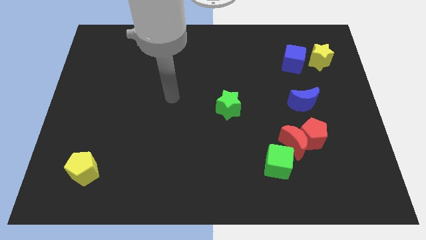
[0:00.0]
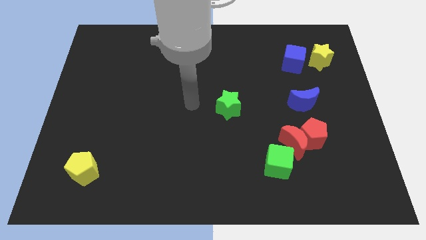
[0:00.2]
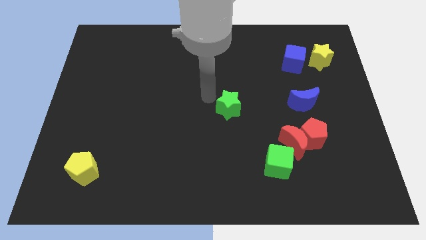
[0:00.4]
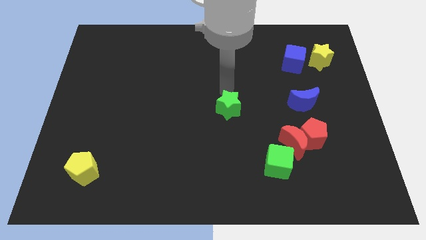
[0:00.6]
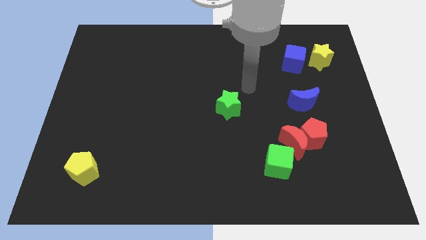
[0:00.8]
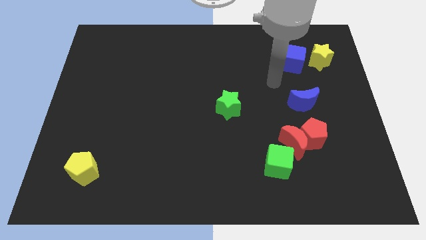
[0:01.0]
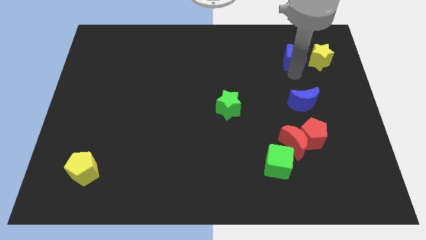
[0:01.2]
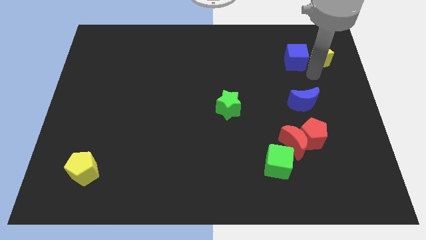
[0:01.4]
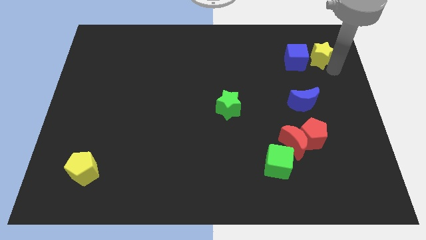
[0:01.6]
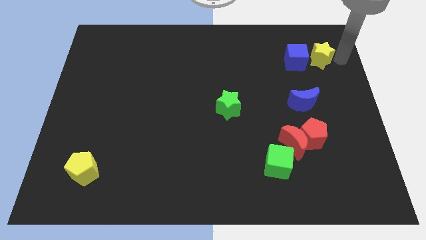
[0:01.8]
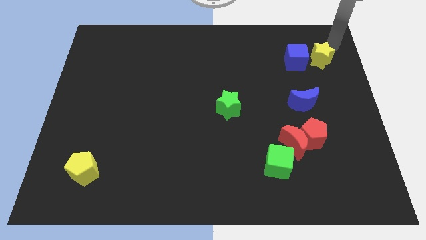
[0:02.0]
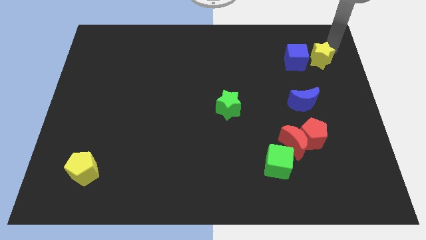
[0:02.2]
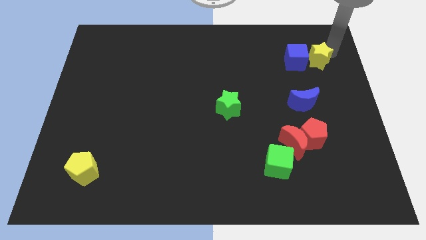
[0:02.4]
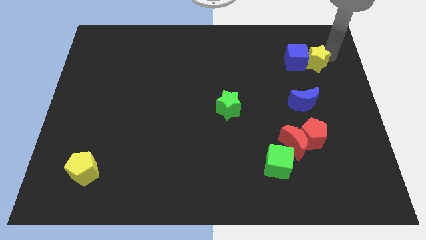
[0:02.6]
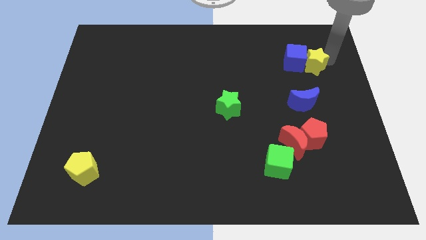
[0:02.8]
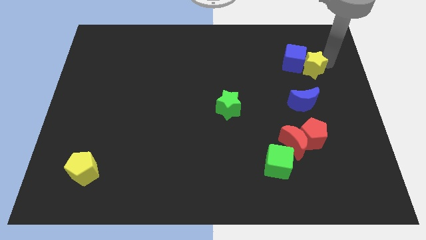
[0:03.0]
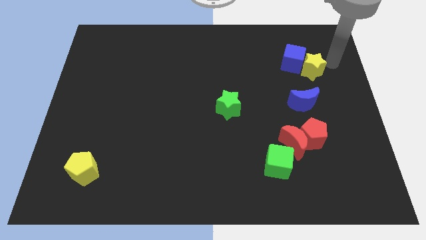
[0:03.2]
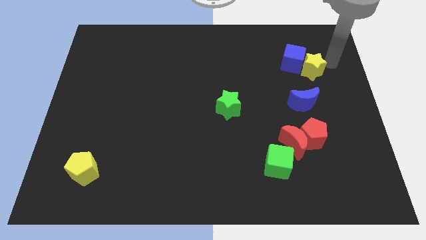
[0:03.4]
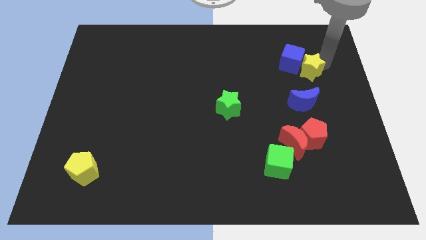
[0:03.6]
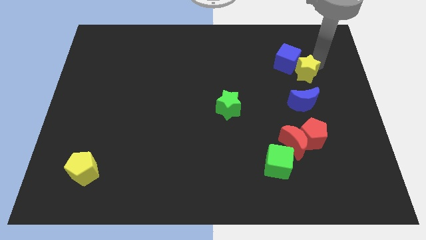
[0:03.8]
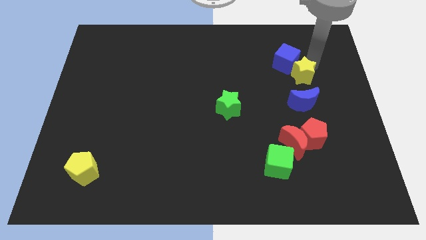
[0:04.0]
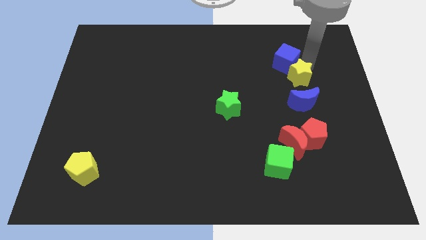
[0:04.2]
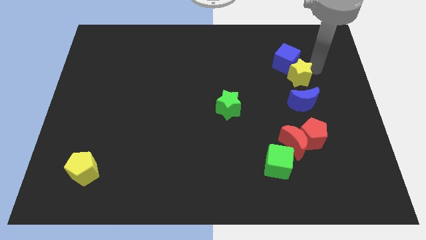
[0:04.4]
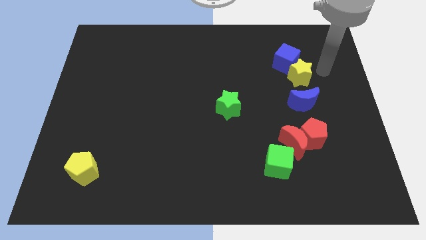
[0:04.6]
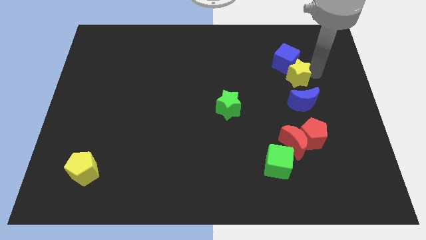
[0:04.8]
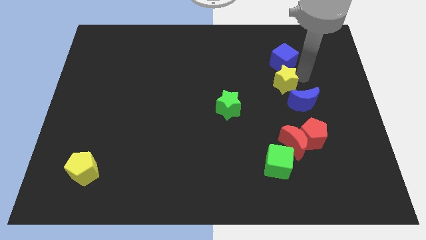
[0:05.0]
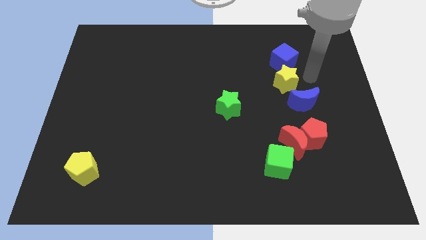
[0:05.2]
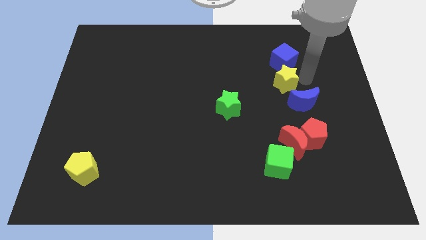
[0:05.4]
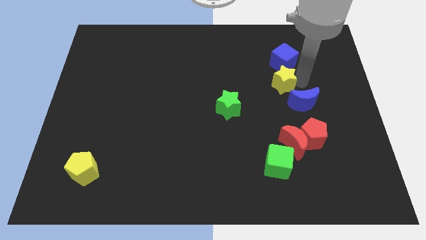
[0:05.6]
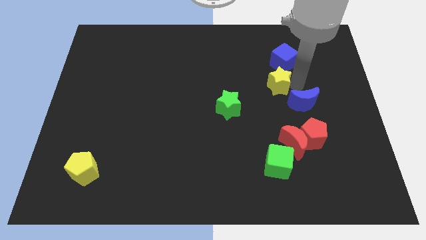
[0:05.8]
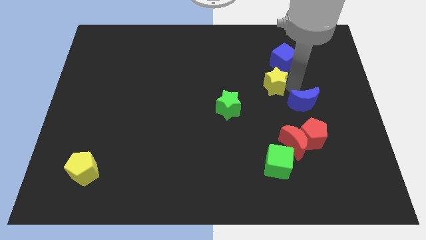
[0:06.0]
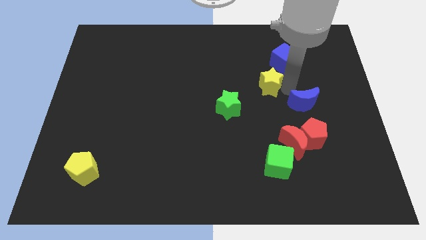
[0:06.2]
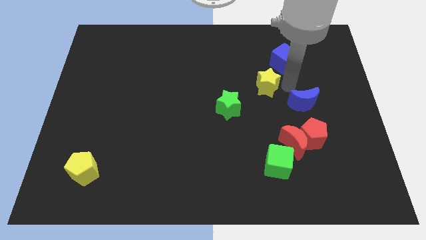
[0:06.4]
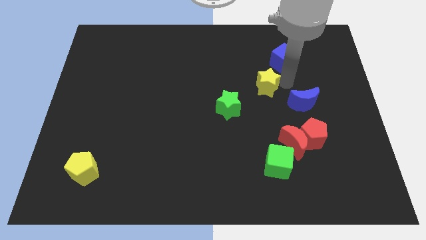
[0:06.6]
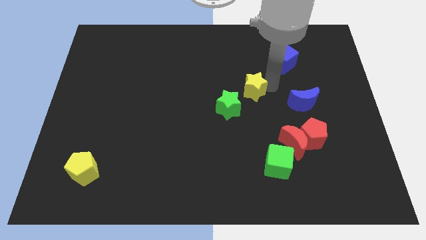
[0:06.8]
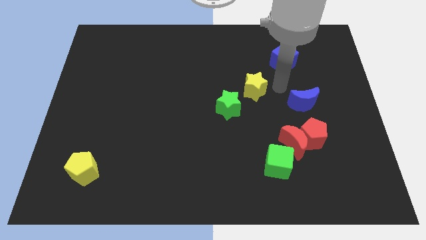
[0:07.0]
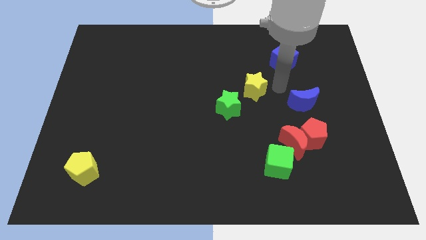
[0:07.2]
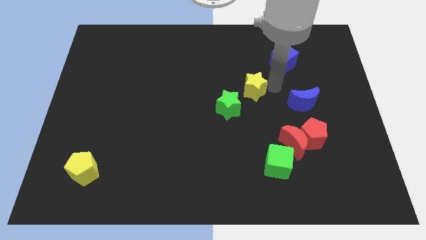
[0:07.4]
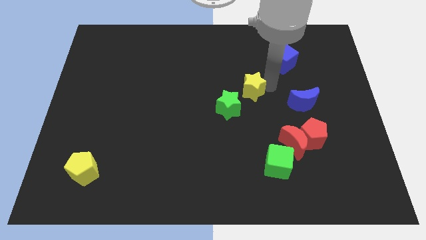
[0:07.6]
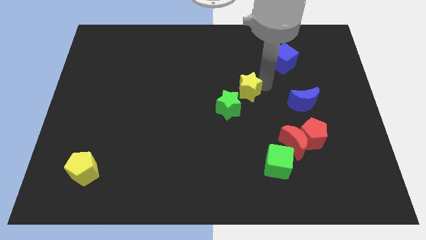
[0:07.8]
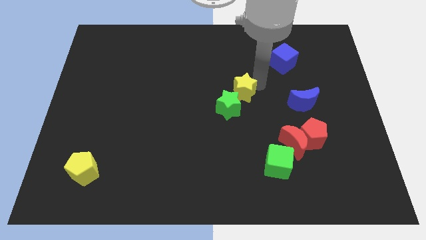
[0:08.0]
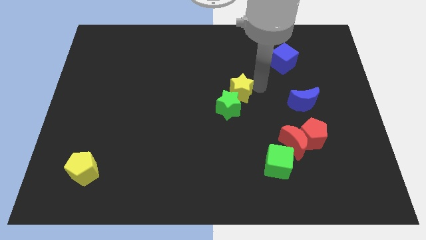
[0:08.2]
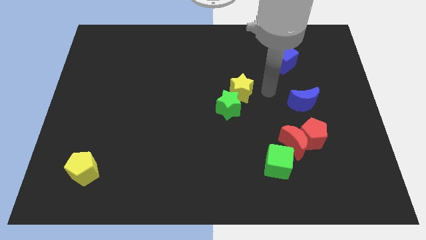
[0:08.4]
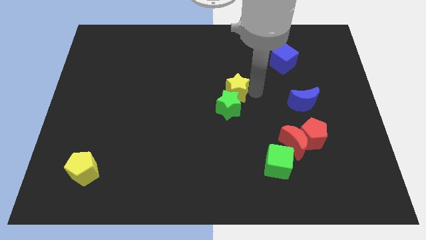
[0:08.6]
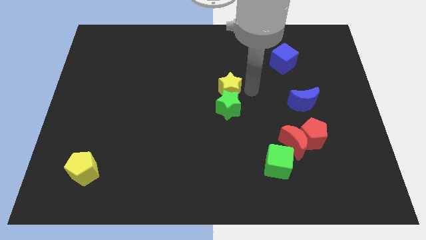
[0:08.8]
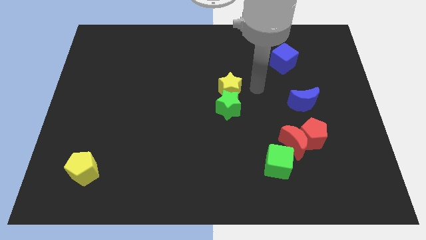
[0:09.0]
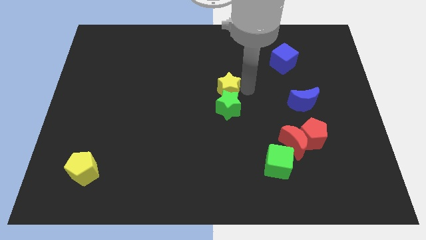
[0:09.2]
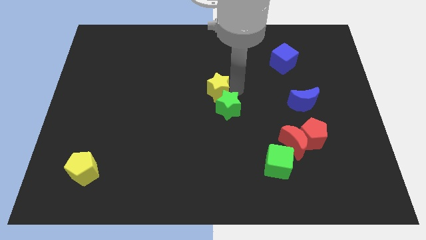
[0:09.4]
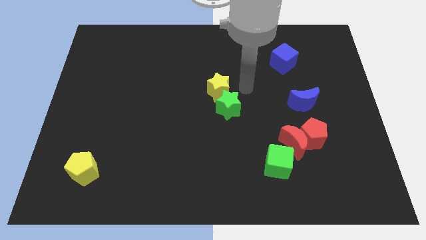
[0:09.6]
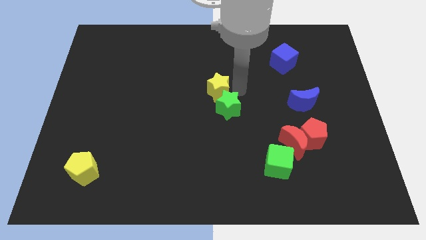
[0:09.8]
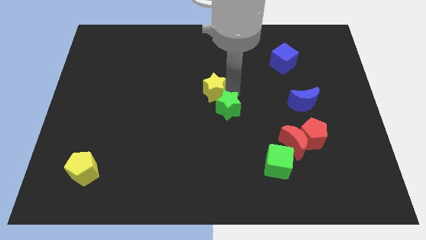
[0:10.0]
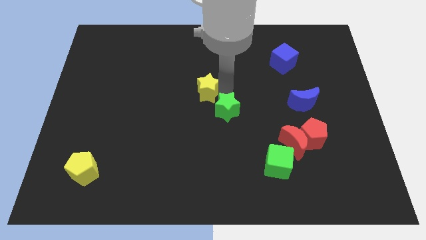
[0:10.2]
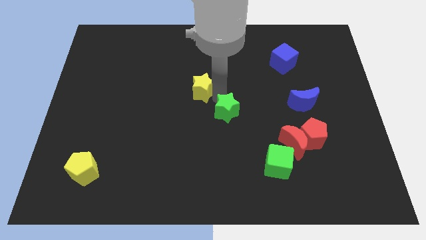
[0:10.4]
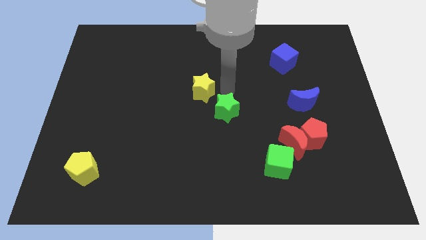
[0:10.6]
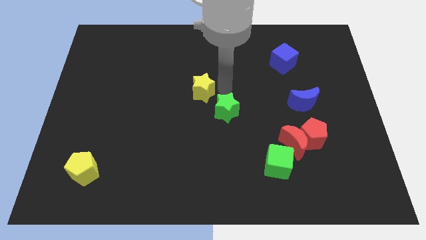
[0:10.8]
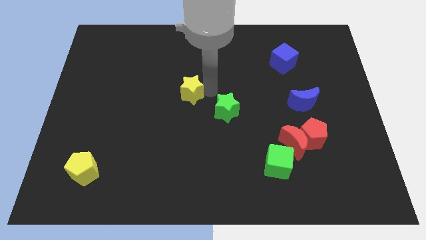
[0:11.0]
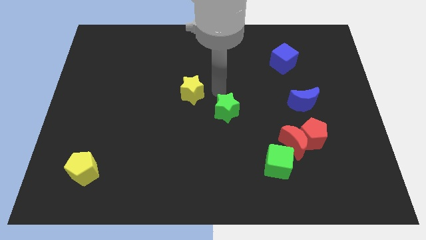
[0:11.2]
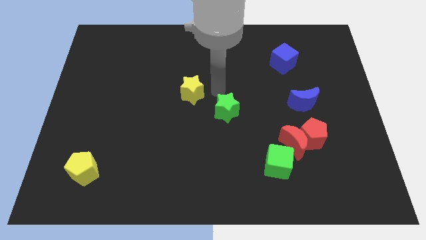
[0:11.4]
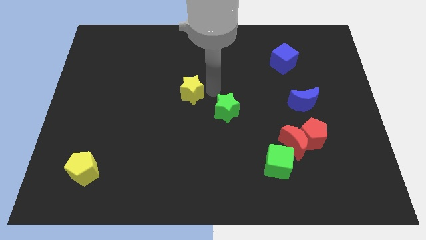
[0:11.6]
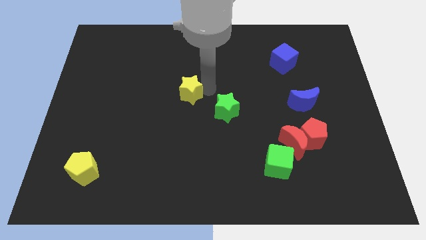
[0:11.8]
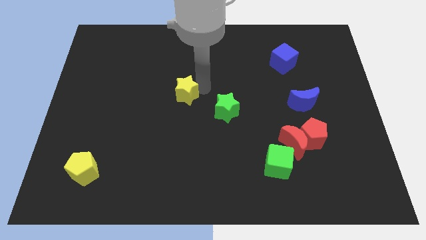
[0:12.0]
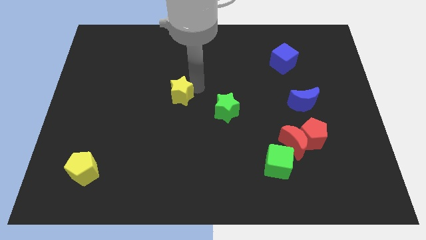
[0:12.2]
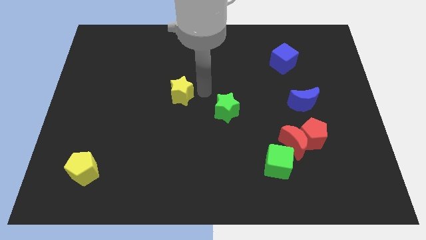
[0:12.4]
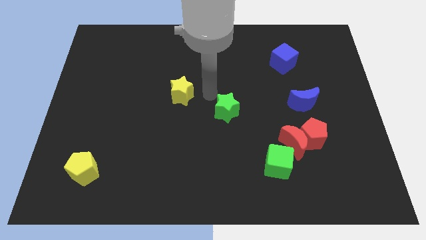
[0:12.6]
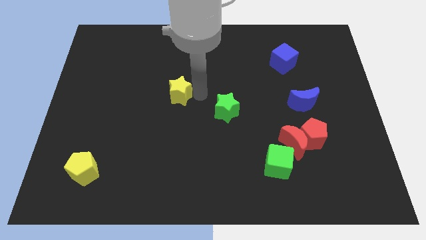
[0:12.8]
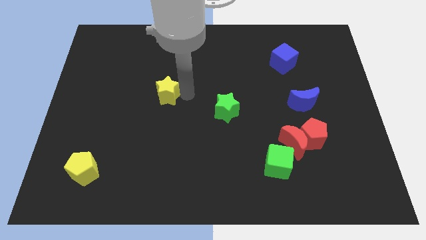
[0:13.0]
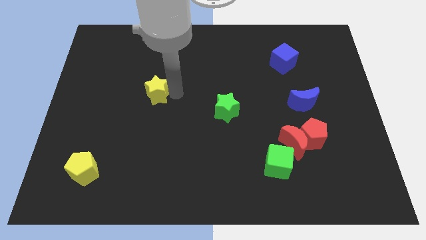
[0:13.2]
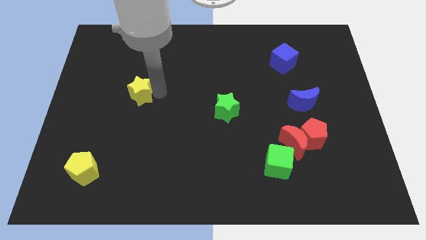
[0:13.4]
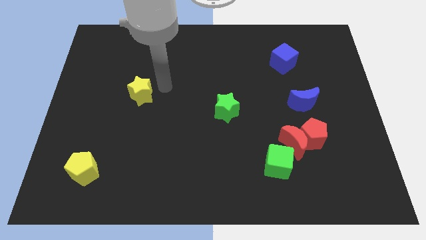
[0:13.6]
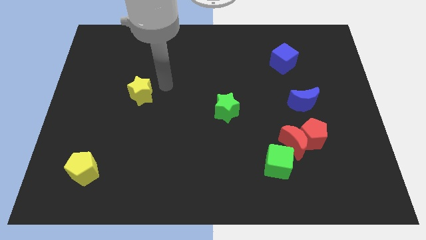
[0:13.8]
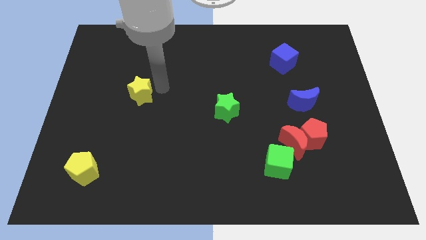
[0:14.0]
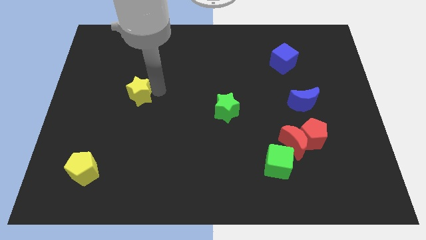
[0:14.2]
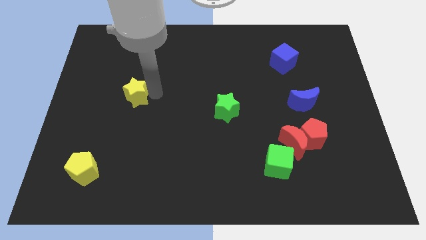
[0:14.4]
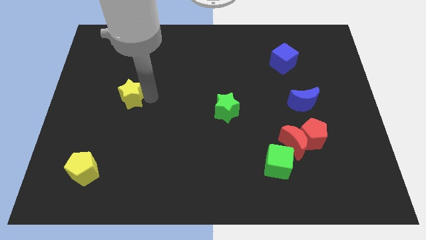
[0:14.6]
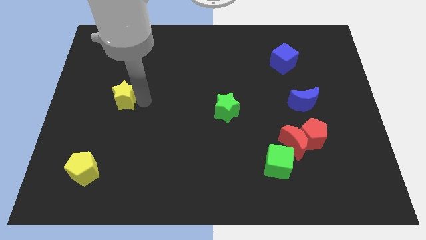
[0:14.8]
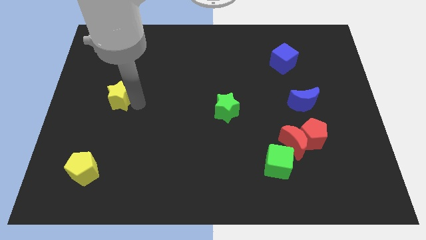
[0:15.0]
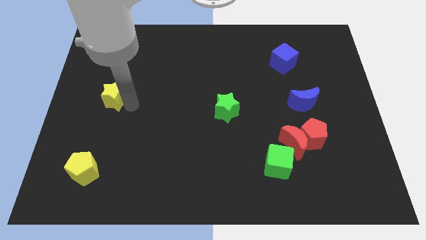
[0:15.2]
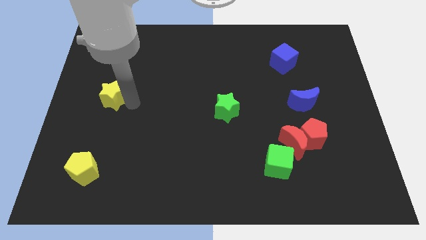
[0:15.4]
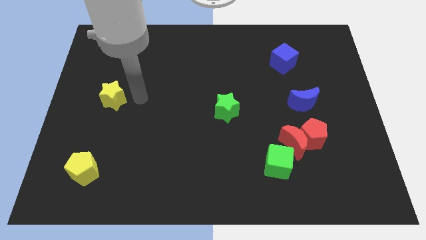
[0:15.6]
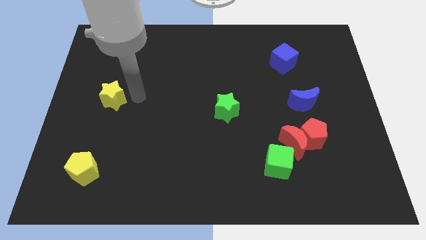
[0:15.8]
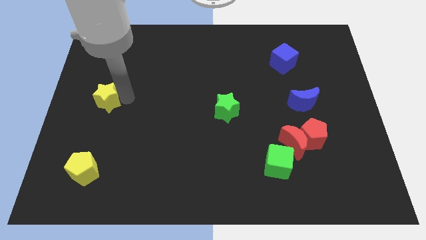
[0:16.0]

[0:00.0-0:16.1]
slide the yellow star to the center left
